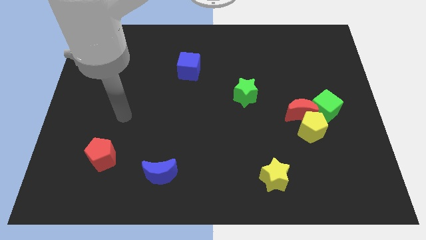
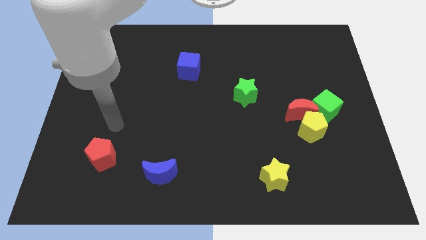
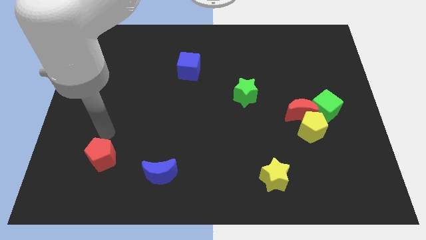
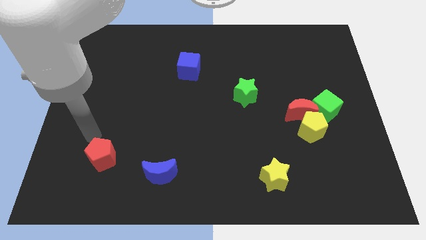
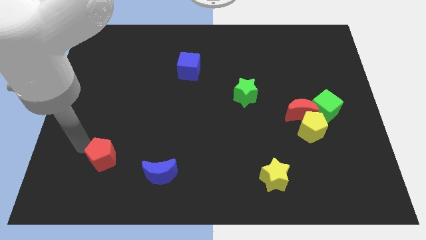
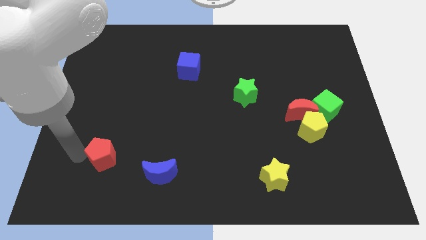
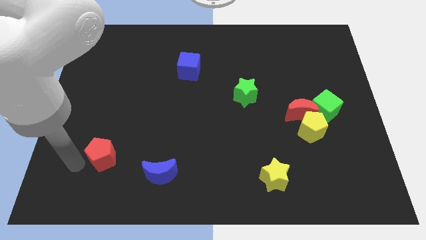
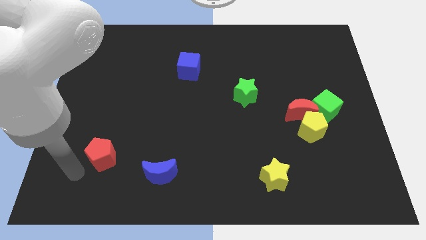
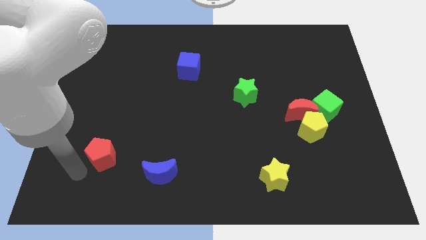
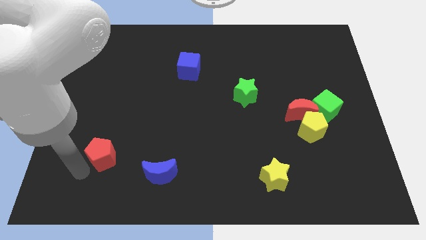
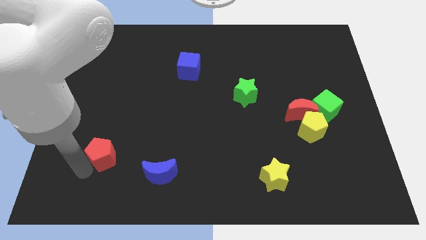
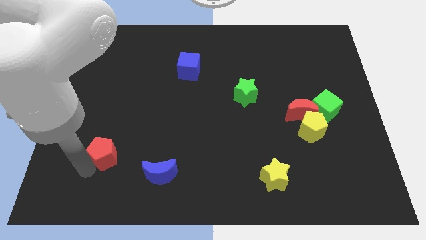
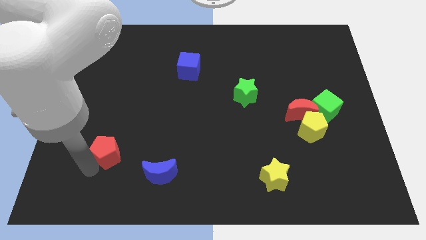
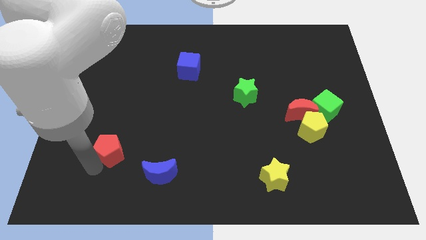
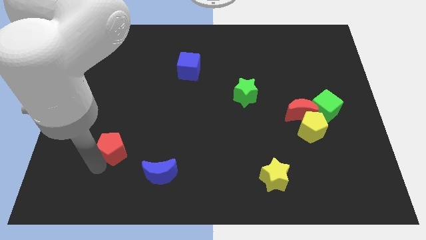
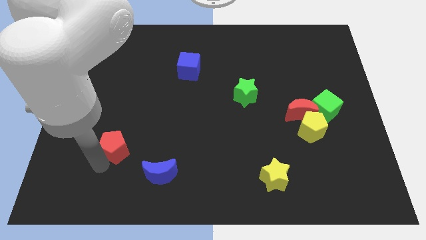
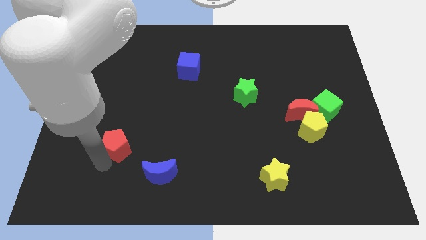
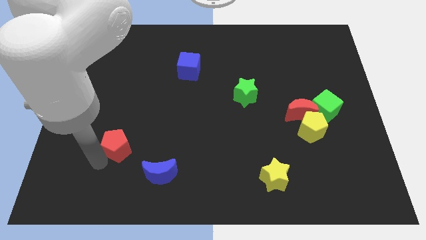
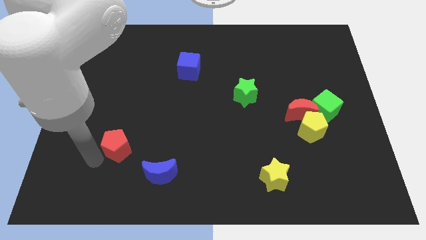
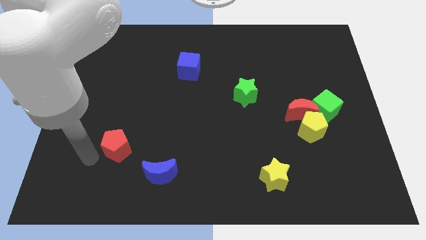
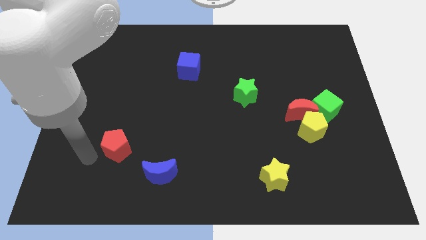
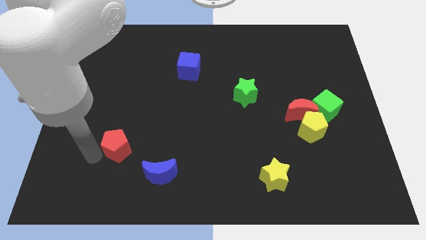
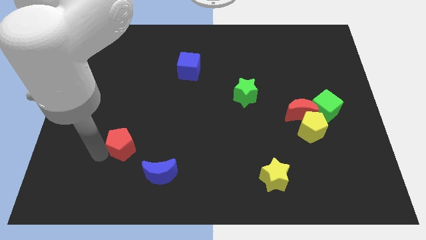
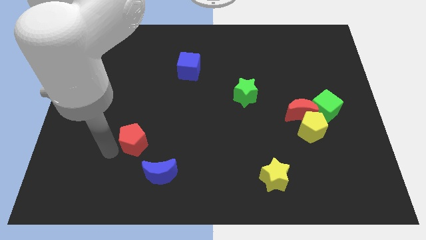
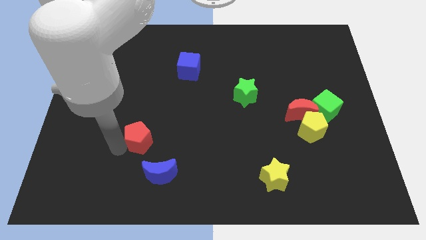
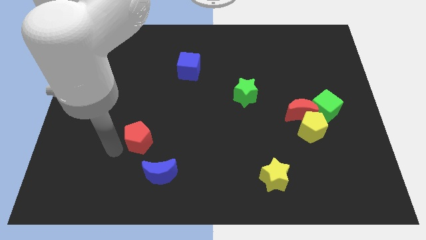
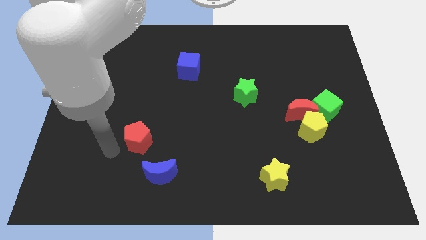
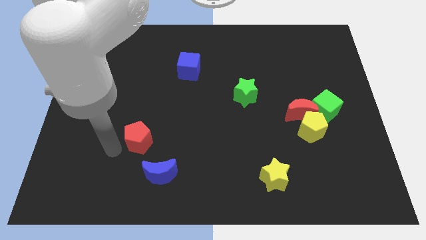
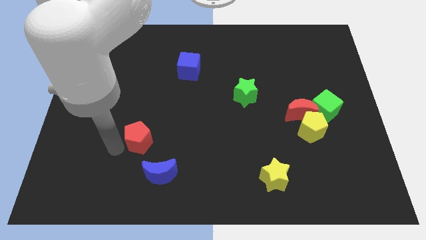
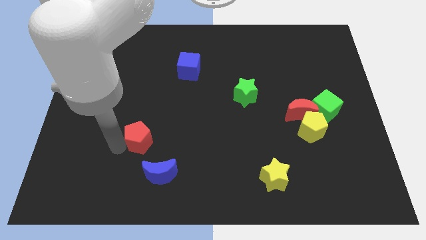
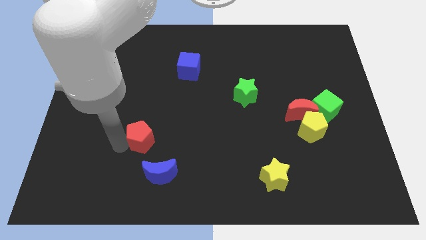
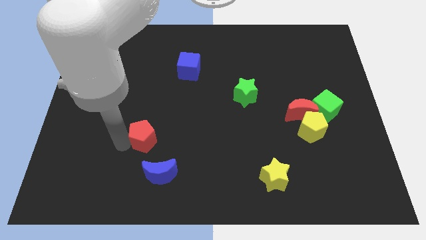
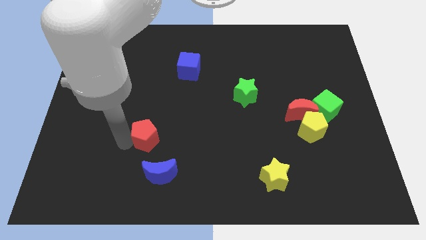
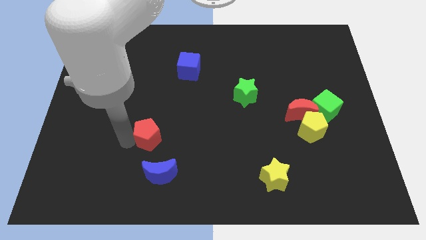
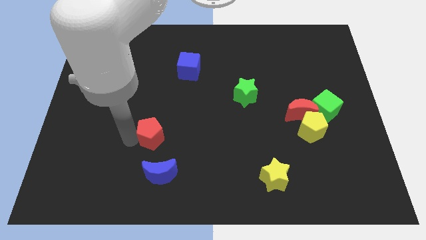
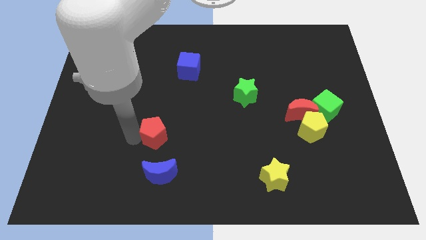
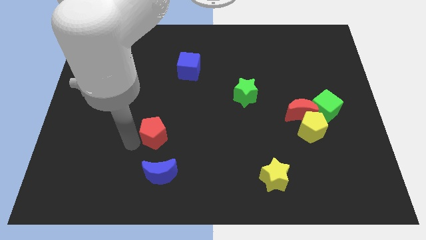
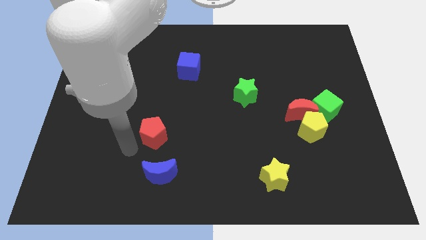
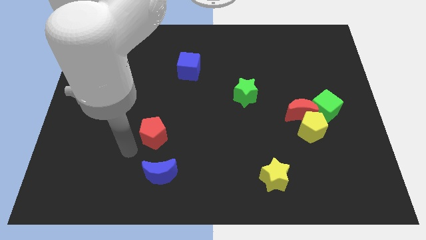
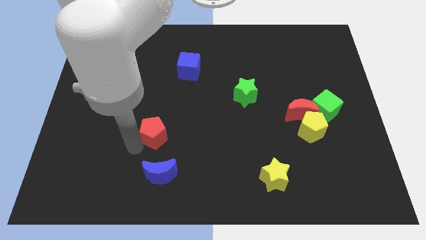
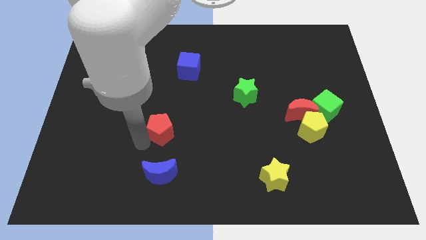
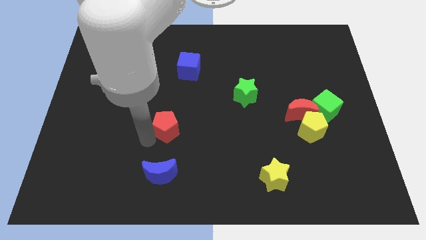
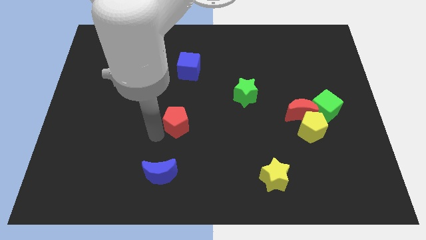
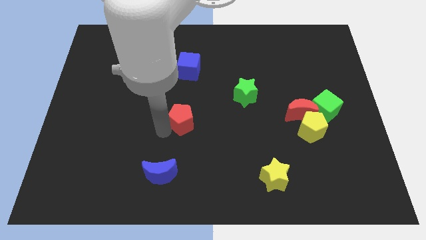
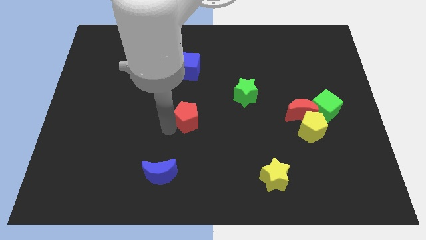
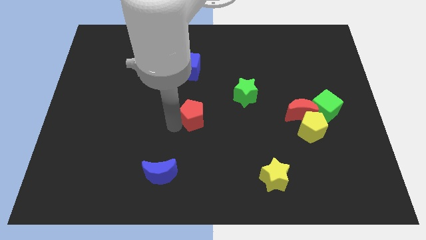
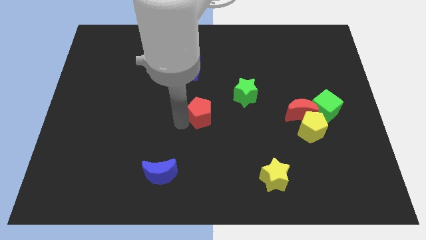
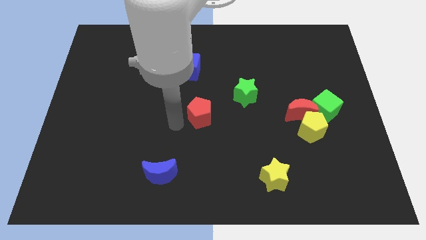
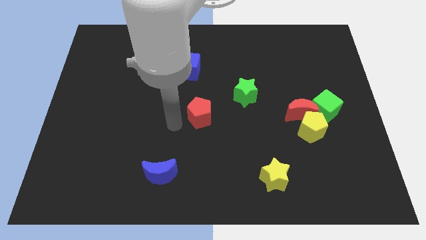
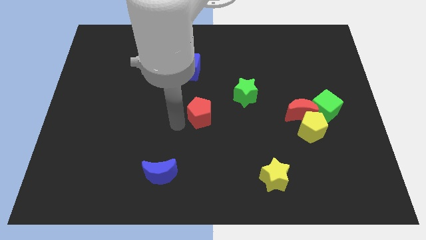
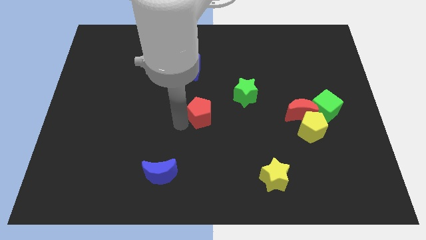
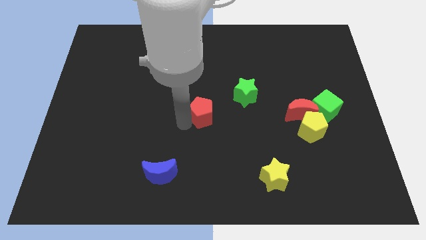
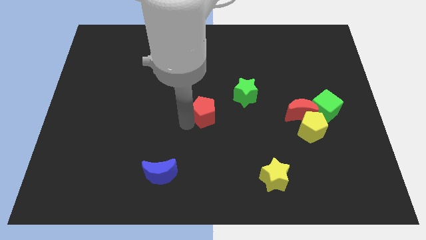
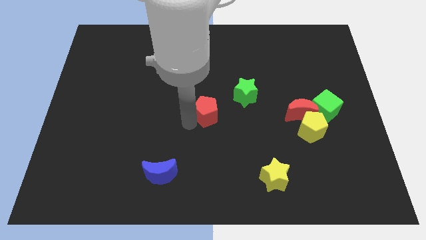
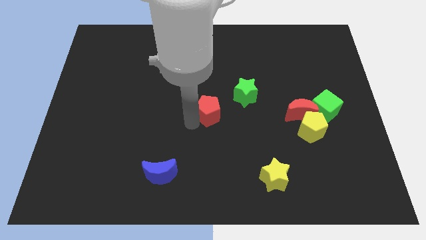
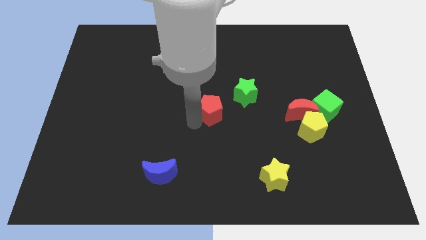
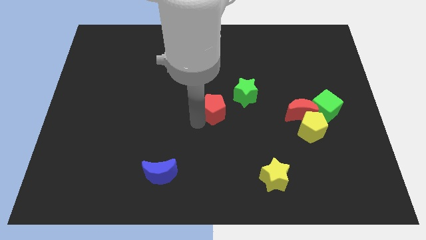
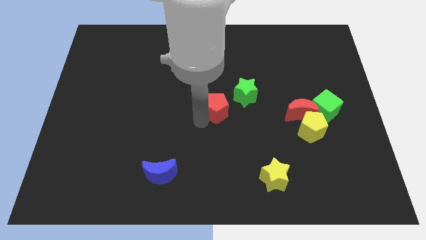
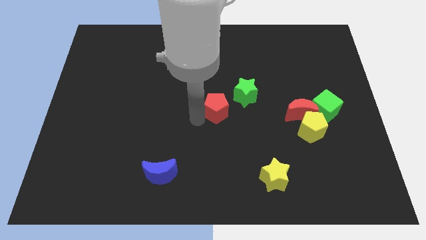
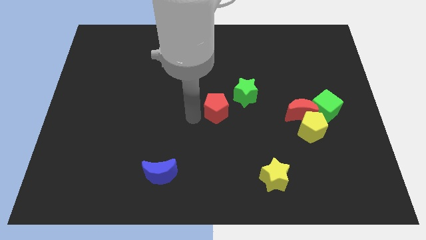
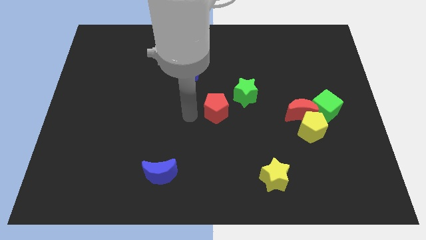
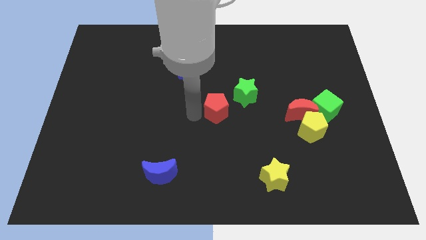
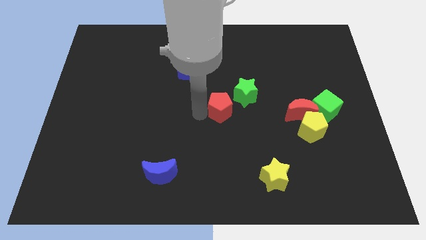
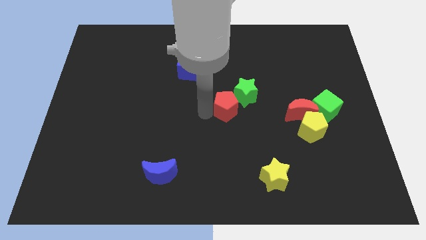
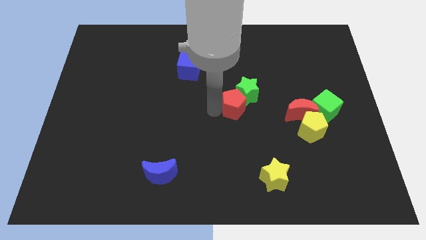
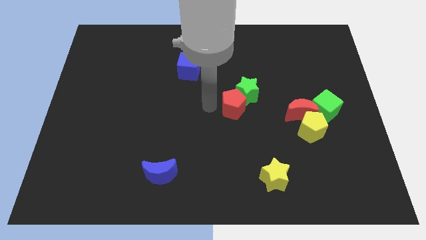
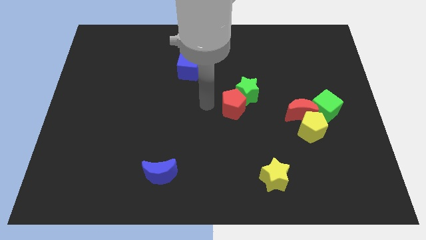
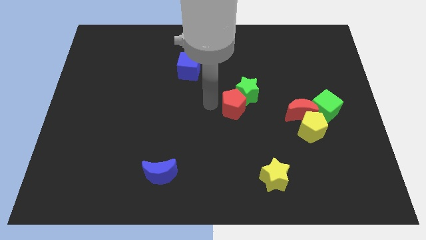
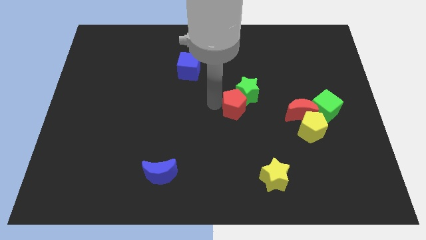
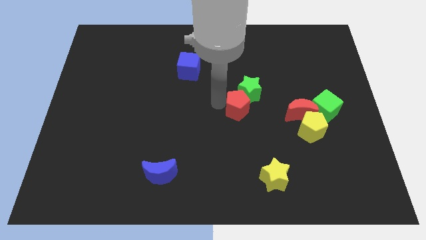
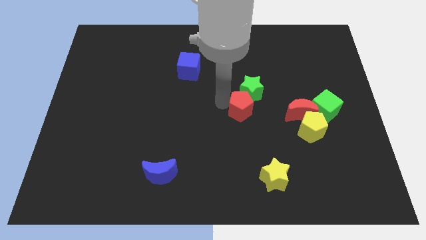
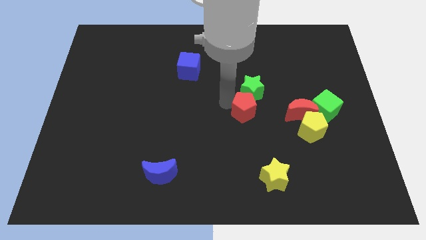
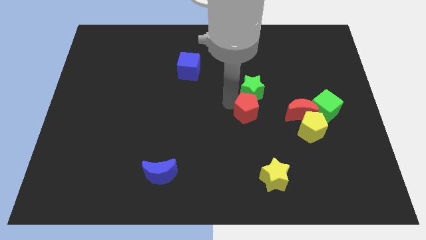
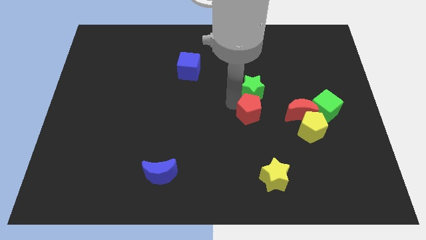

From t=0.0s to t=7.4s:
slide the red pentagon to the bottom right of the green star
